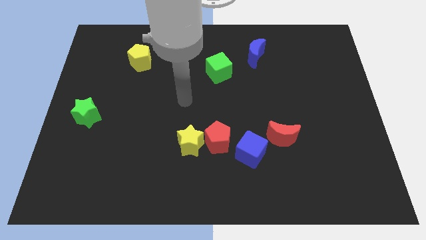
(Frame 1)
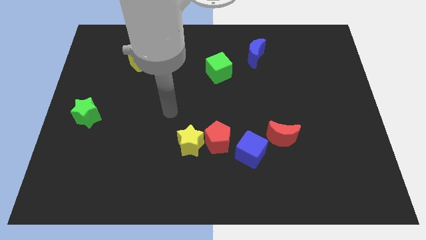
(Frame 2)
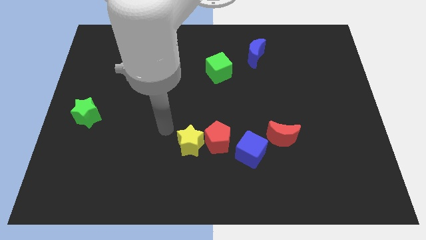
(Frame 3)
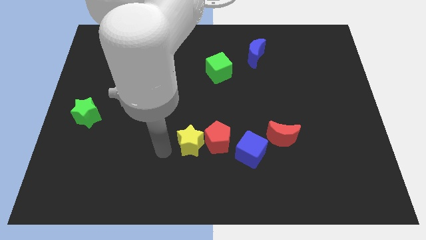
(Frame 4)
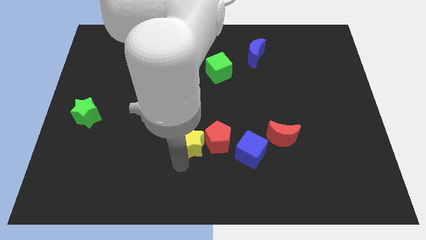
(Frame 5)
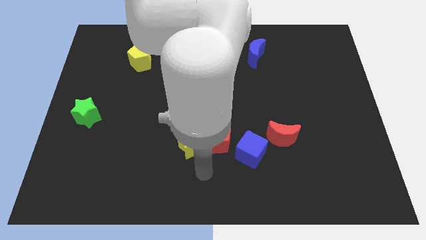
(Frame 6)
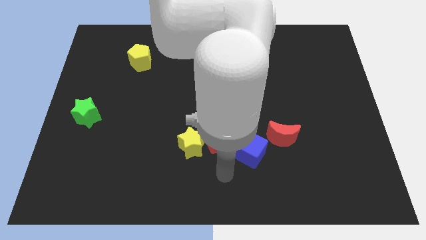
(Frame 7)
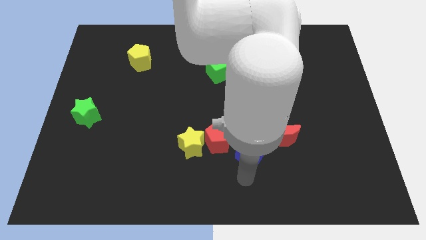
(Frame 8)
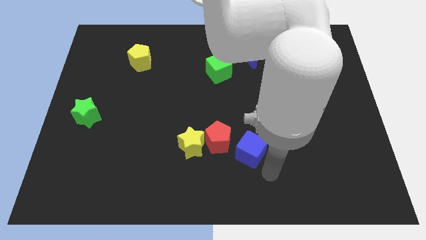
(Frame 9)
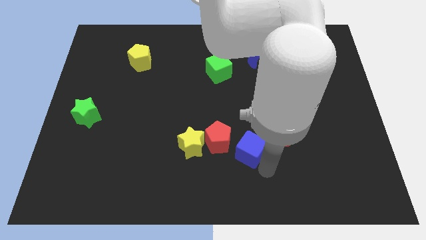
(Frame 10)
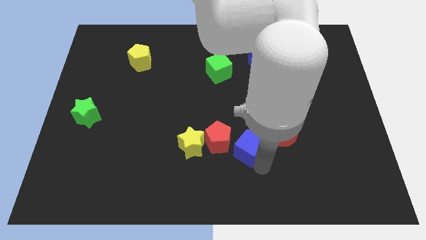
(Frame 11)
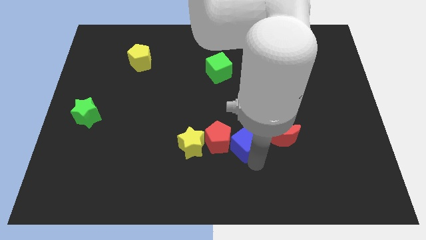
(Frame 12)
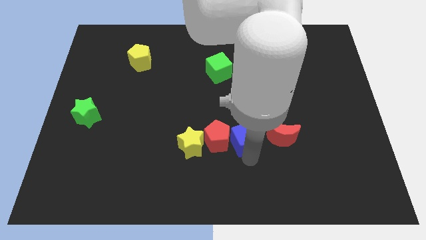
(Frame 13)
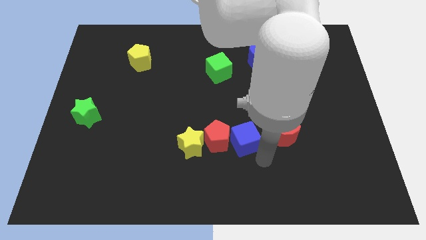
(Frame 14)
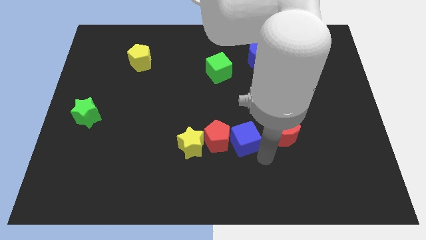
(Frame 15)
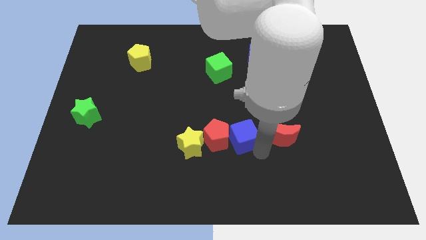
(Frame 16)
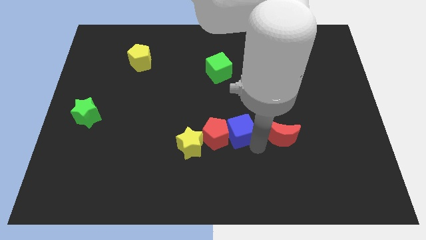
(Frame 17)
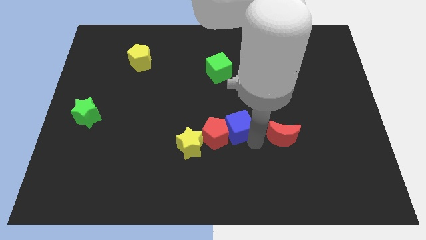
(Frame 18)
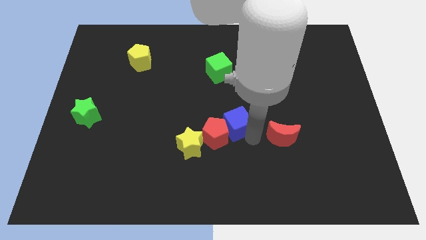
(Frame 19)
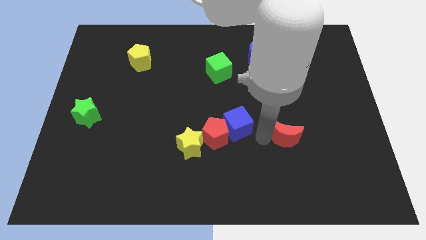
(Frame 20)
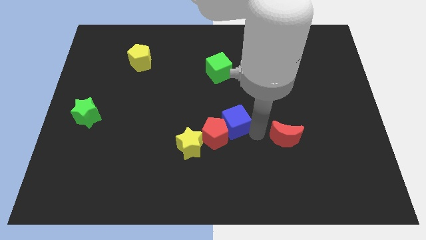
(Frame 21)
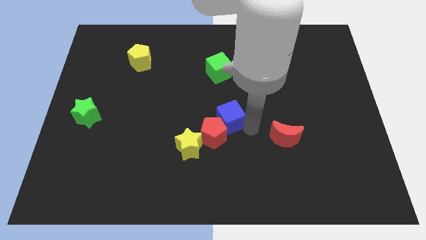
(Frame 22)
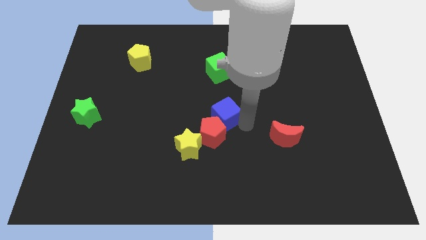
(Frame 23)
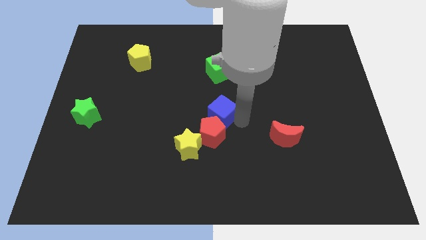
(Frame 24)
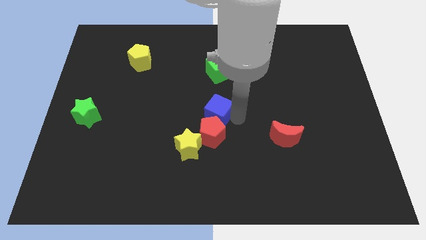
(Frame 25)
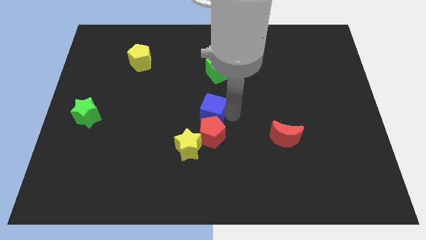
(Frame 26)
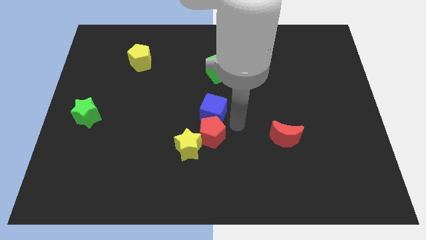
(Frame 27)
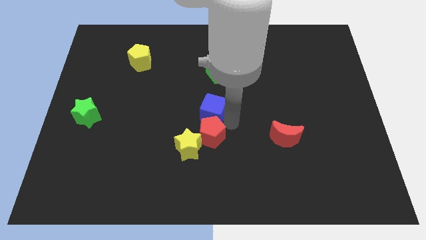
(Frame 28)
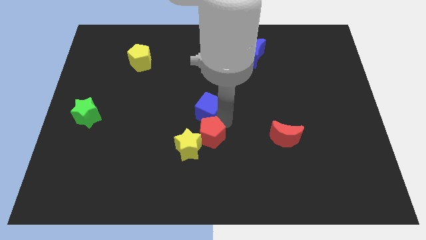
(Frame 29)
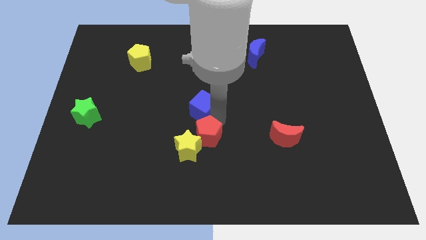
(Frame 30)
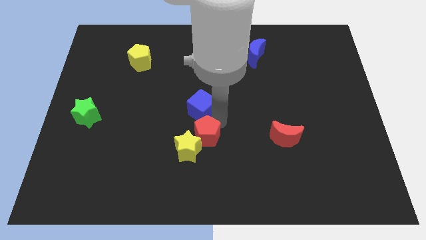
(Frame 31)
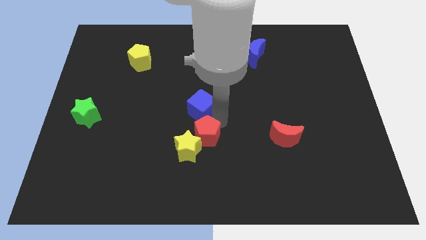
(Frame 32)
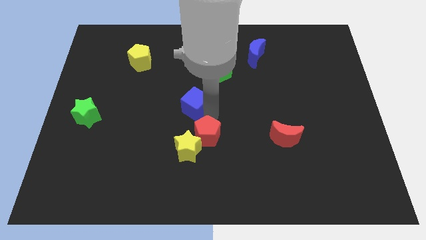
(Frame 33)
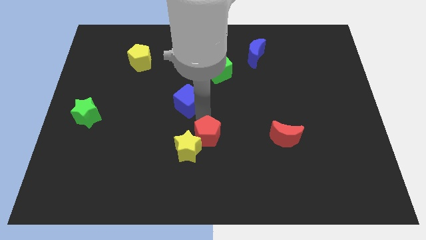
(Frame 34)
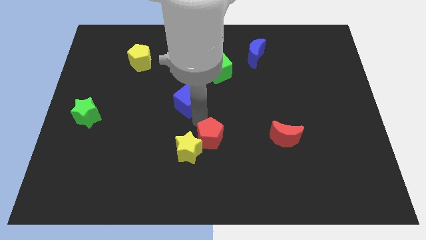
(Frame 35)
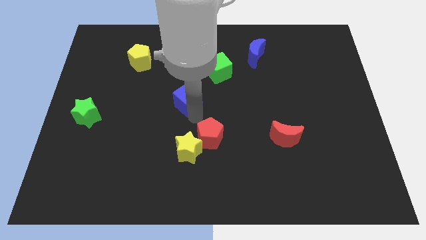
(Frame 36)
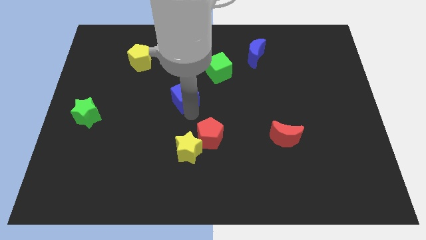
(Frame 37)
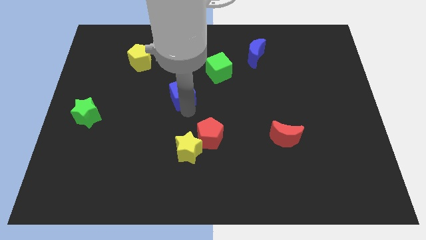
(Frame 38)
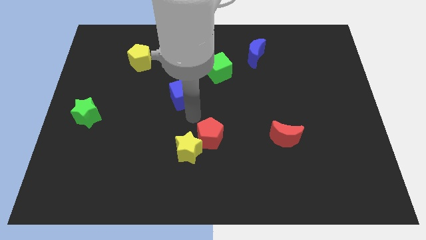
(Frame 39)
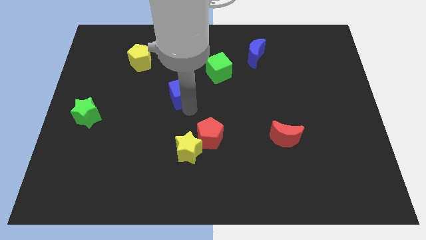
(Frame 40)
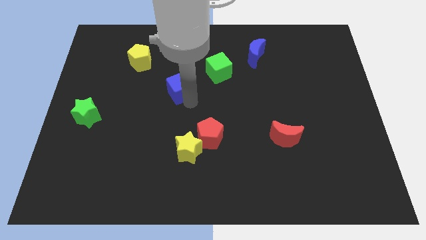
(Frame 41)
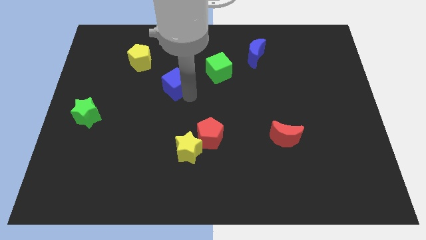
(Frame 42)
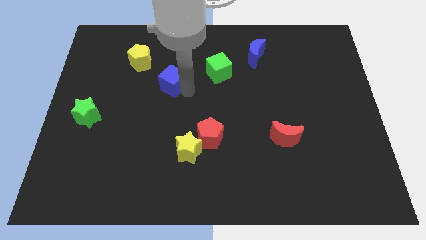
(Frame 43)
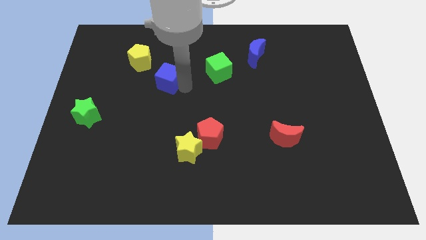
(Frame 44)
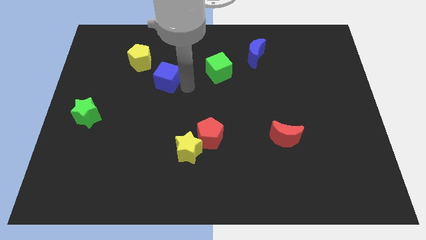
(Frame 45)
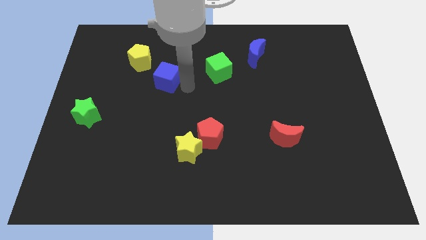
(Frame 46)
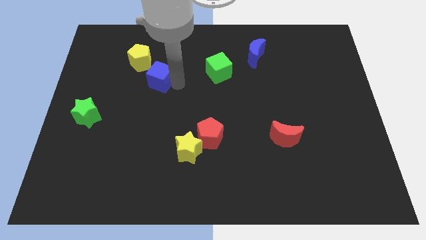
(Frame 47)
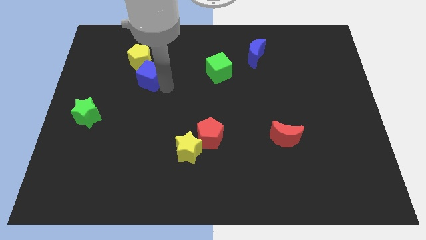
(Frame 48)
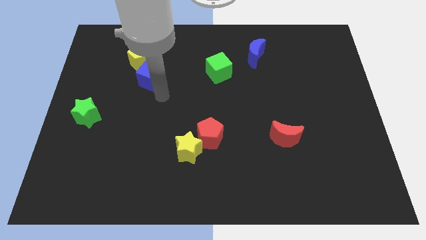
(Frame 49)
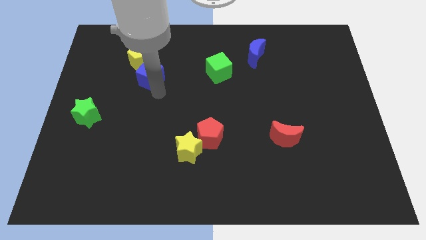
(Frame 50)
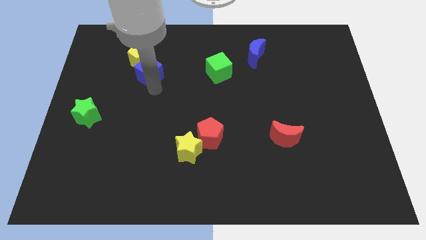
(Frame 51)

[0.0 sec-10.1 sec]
move the blue cube to the yellow pentagon

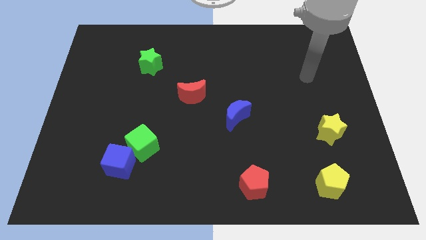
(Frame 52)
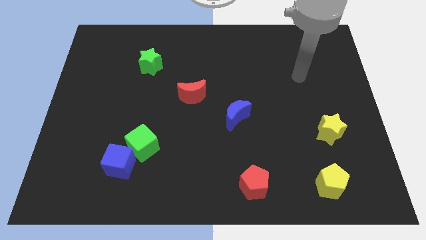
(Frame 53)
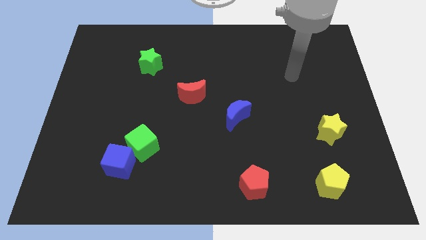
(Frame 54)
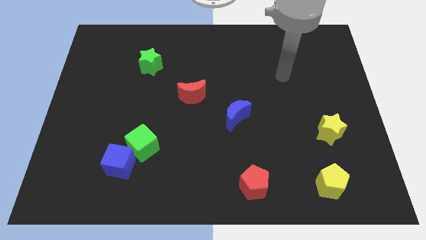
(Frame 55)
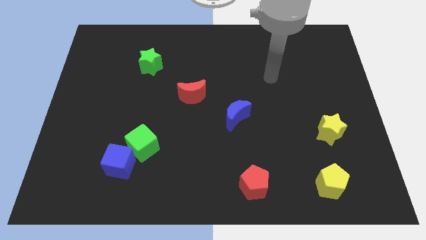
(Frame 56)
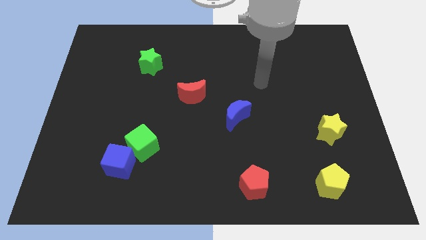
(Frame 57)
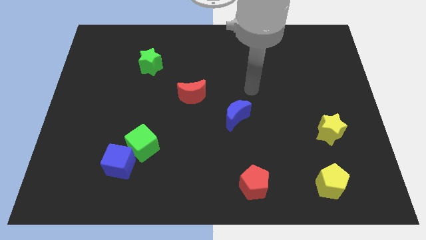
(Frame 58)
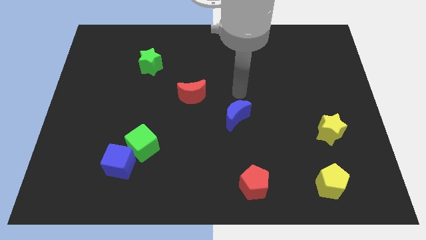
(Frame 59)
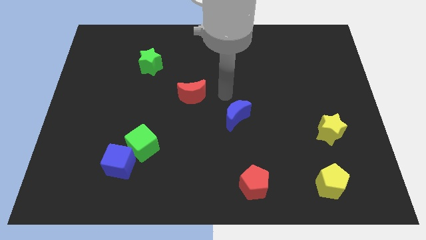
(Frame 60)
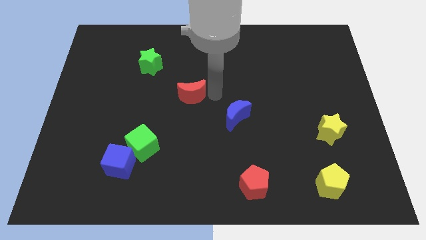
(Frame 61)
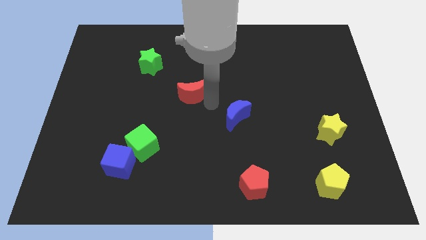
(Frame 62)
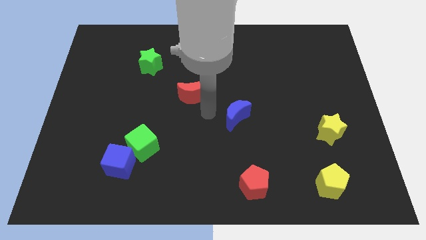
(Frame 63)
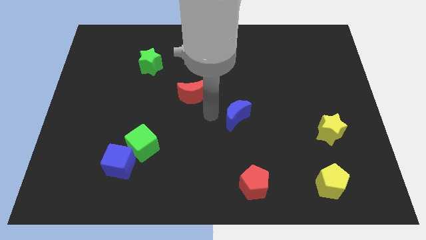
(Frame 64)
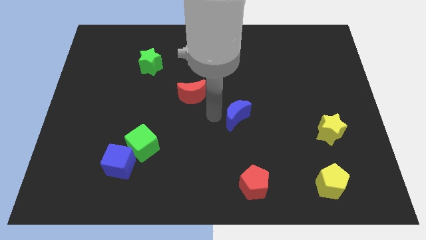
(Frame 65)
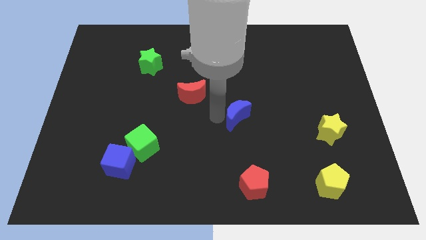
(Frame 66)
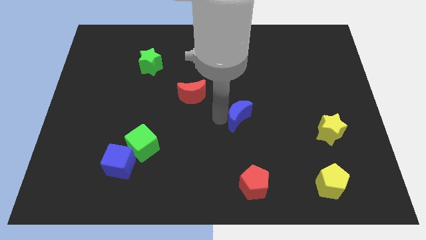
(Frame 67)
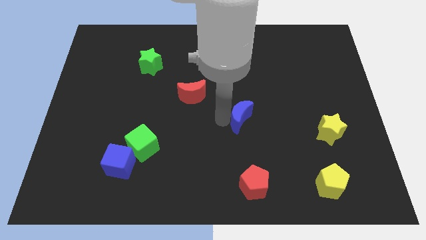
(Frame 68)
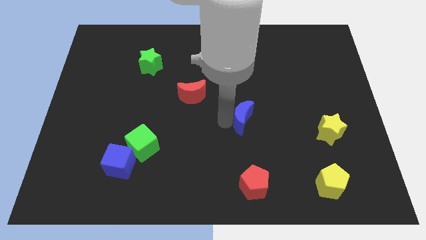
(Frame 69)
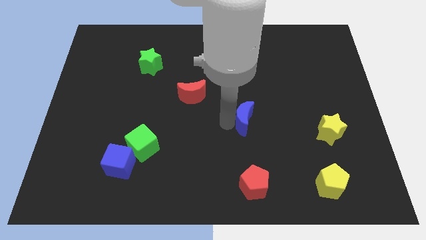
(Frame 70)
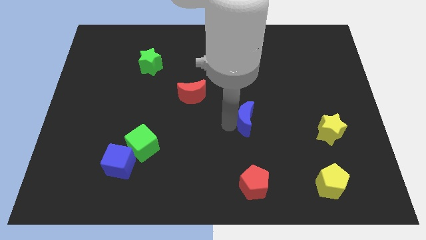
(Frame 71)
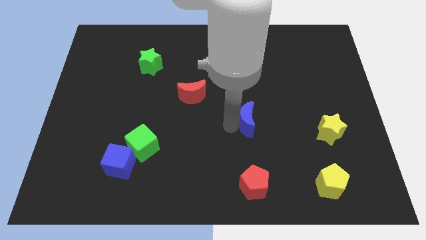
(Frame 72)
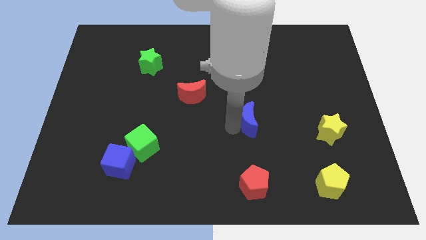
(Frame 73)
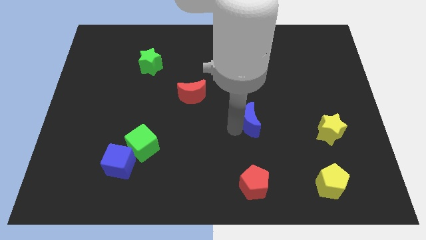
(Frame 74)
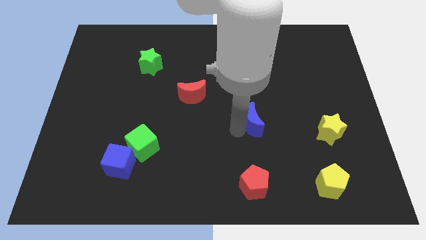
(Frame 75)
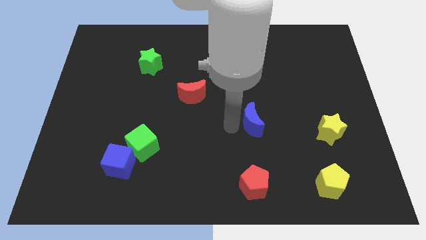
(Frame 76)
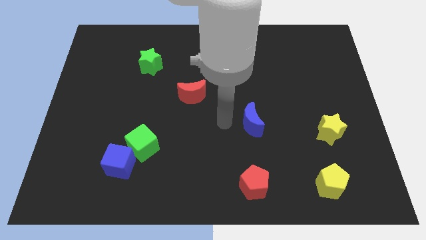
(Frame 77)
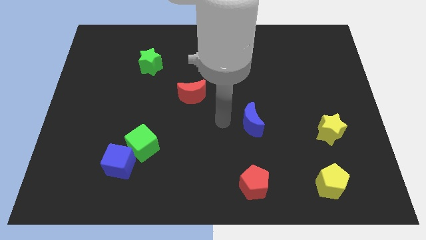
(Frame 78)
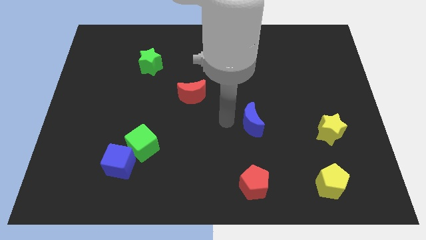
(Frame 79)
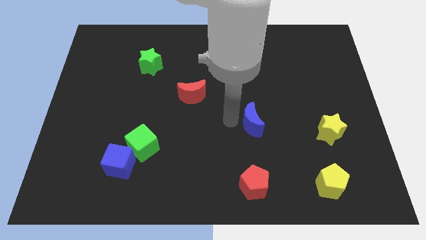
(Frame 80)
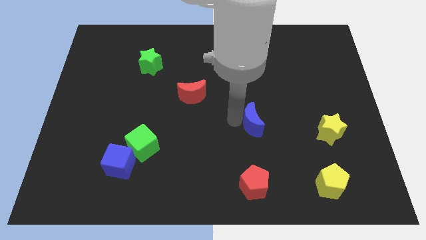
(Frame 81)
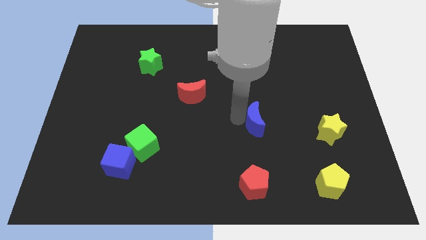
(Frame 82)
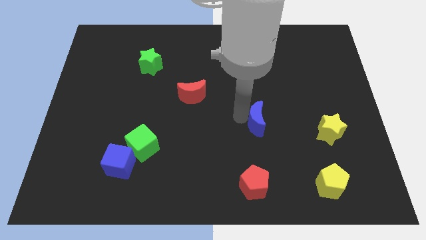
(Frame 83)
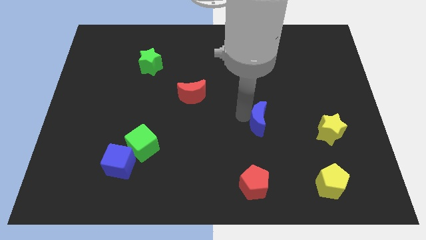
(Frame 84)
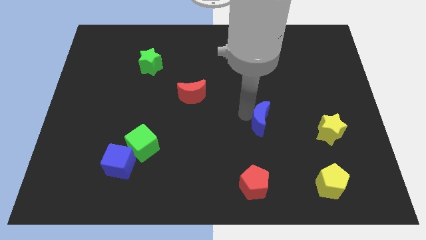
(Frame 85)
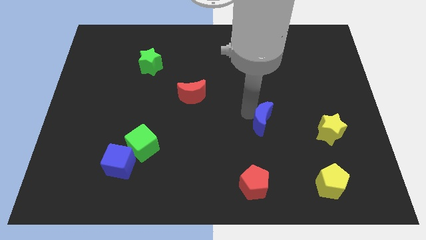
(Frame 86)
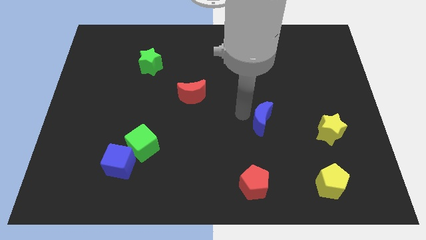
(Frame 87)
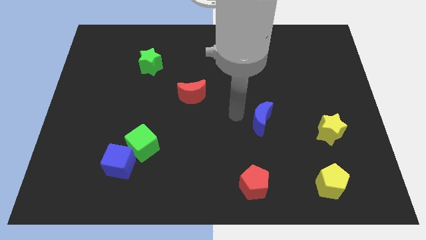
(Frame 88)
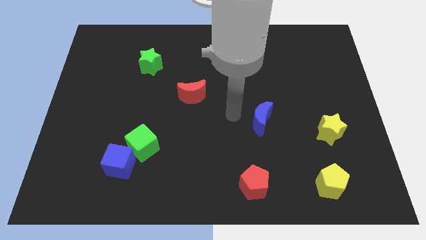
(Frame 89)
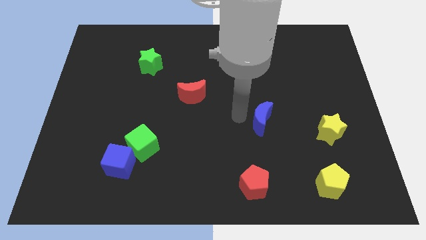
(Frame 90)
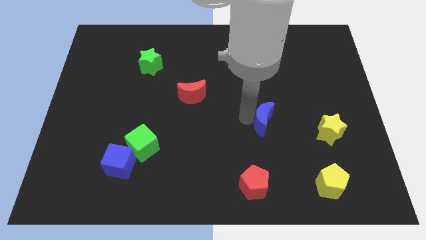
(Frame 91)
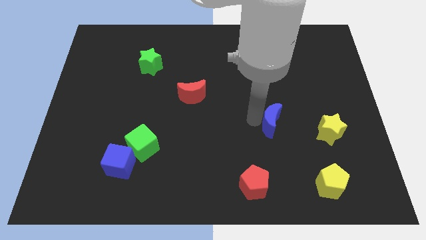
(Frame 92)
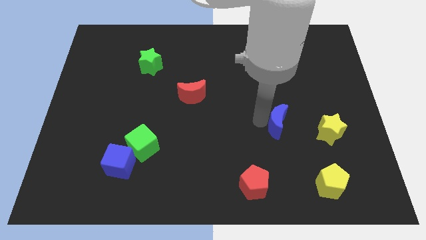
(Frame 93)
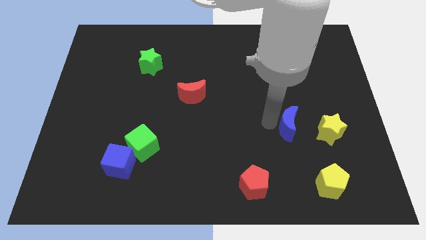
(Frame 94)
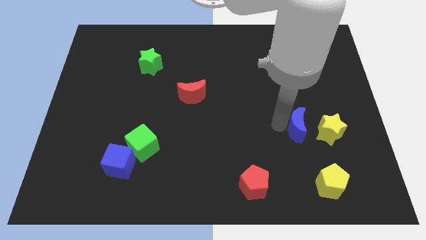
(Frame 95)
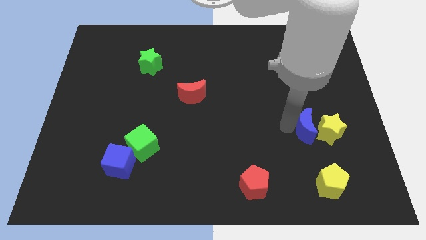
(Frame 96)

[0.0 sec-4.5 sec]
move the blue moon towards the yellow star
